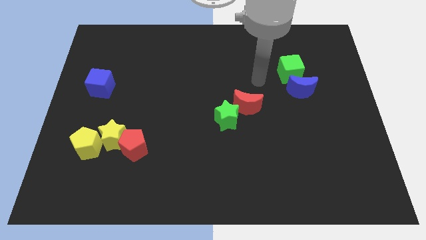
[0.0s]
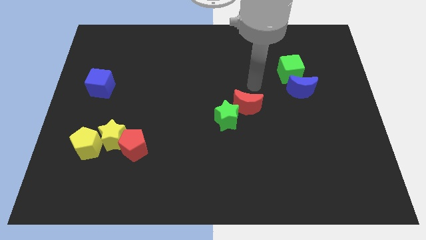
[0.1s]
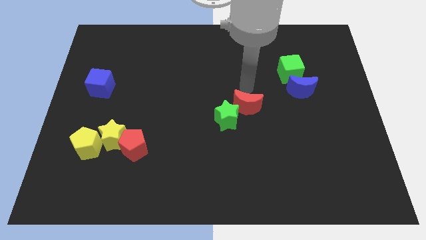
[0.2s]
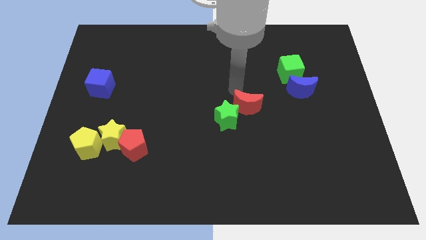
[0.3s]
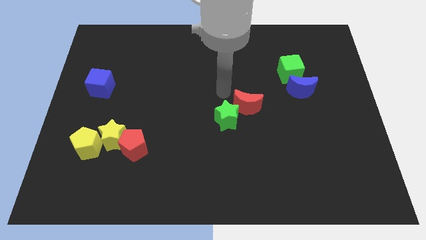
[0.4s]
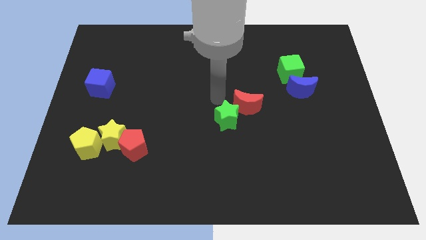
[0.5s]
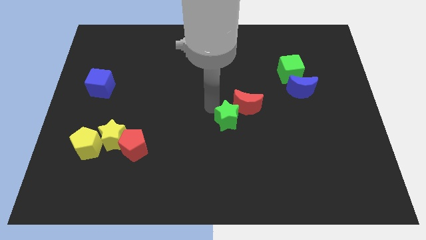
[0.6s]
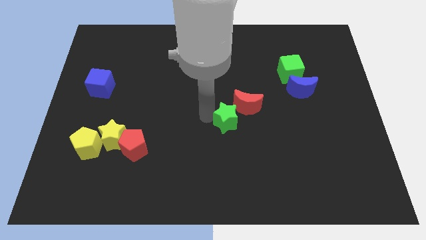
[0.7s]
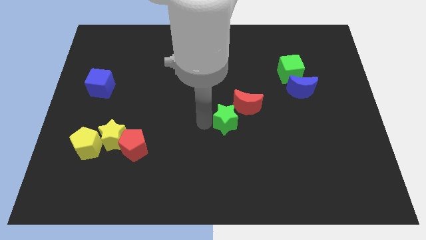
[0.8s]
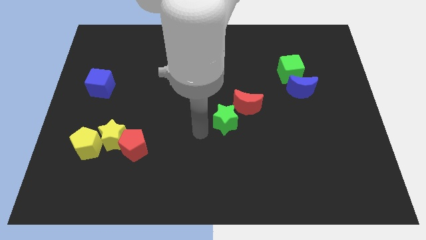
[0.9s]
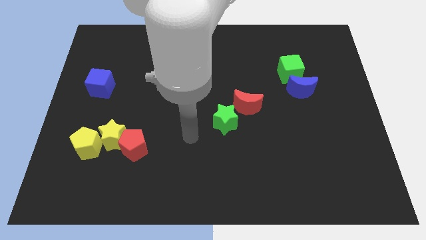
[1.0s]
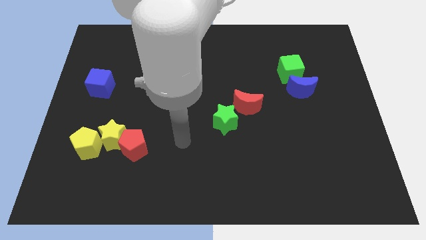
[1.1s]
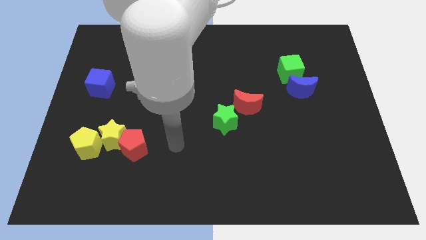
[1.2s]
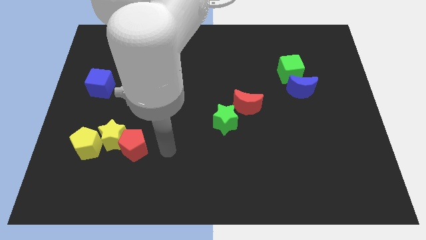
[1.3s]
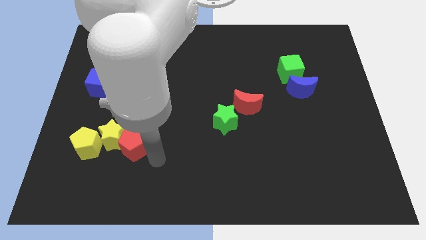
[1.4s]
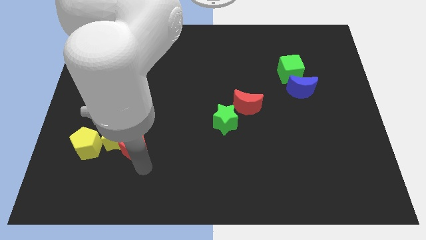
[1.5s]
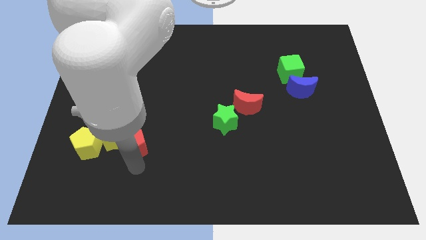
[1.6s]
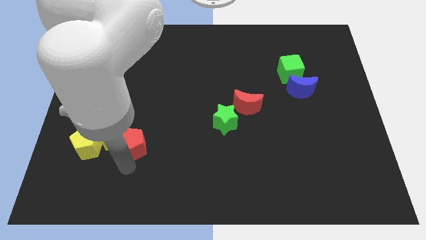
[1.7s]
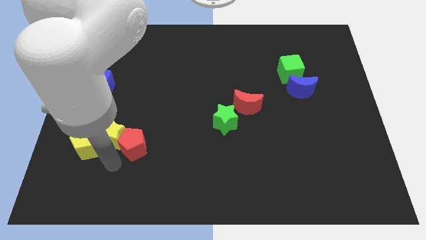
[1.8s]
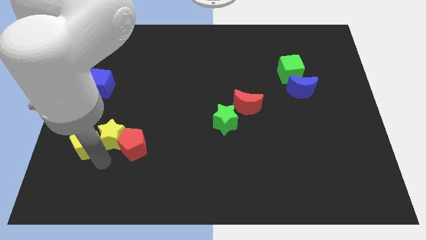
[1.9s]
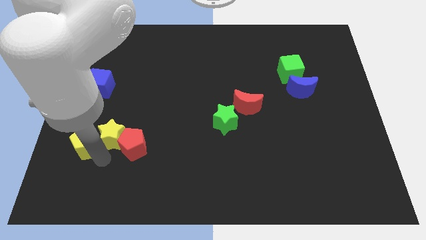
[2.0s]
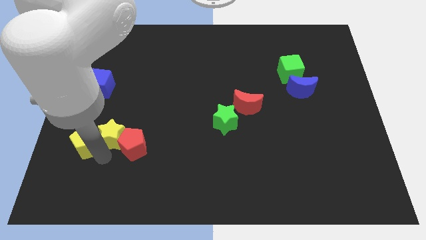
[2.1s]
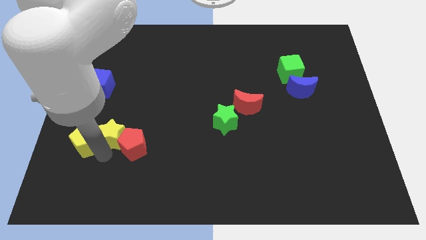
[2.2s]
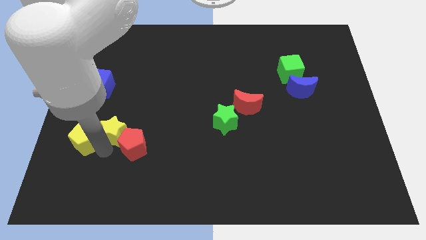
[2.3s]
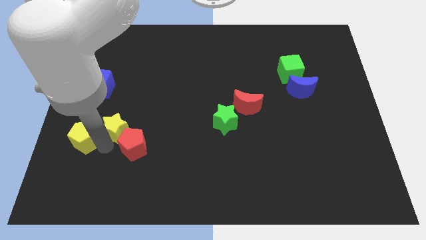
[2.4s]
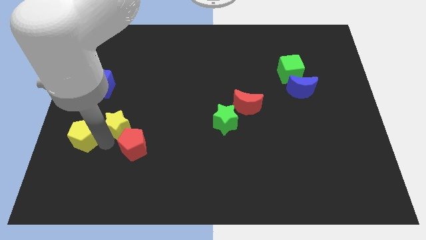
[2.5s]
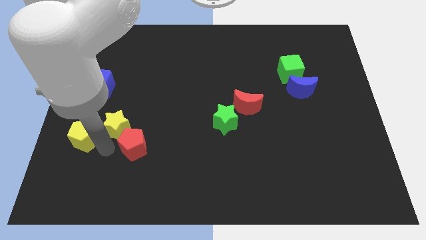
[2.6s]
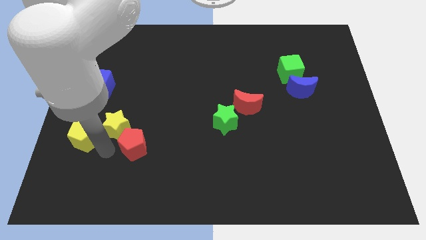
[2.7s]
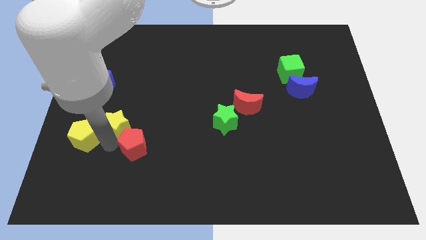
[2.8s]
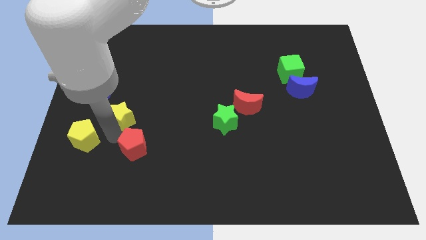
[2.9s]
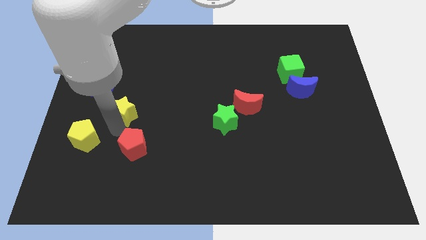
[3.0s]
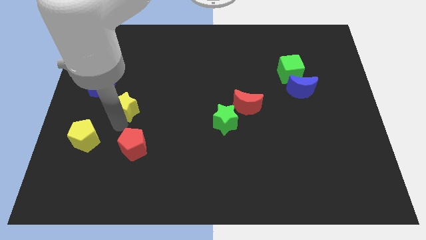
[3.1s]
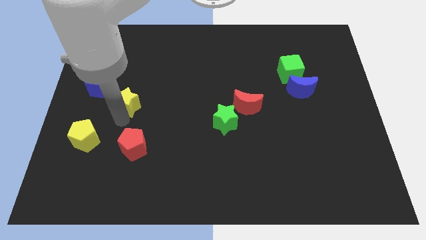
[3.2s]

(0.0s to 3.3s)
pull the yellow star apart from the red pentagon and yellow pentagon

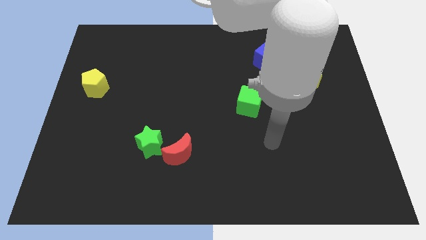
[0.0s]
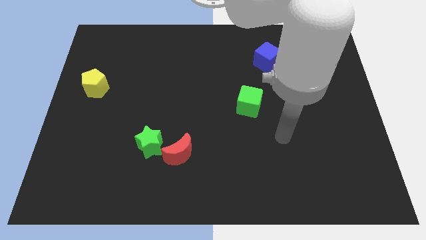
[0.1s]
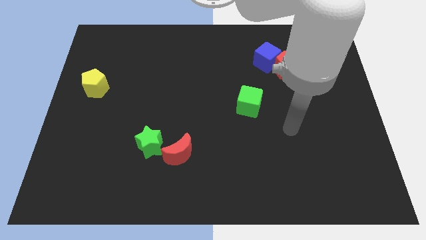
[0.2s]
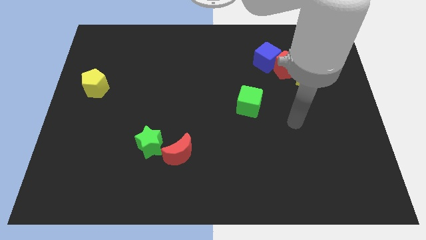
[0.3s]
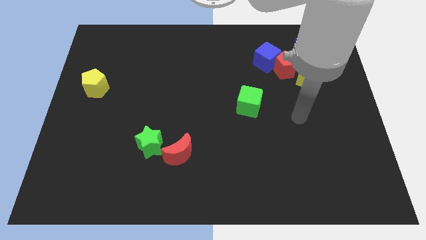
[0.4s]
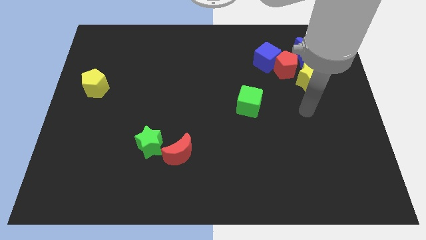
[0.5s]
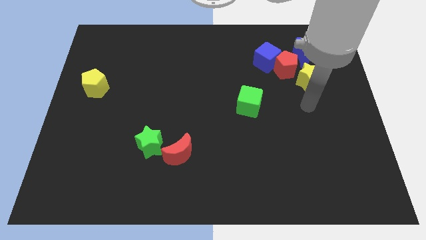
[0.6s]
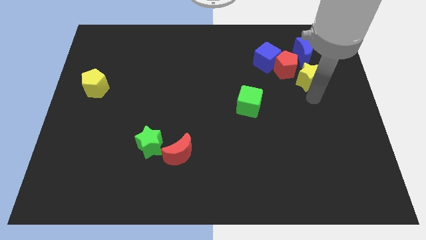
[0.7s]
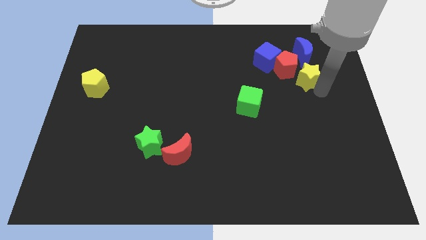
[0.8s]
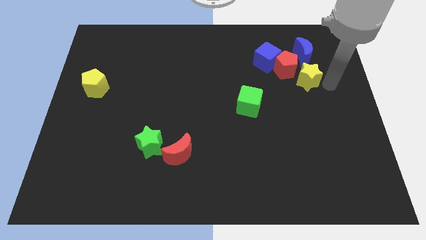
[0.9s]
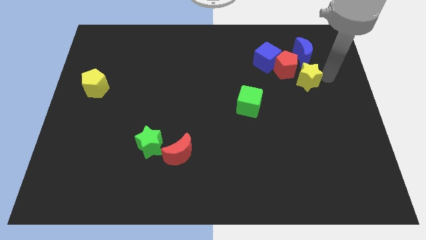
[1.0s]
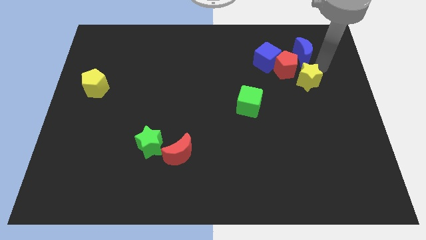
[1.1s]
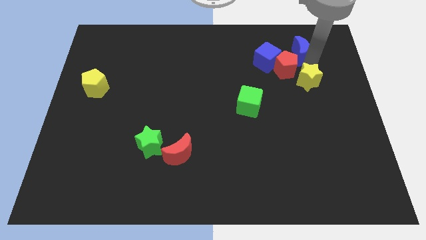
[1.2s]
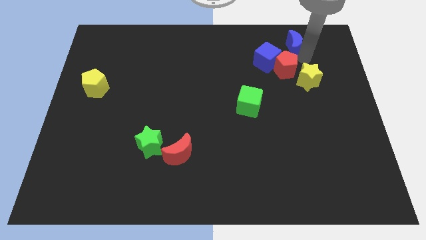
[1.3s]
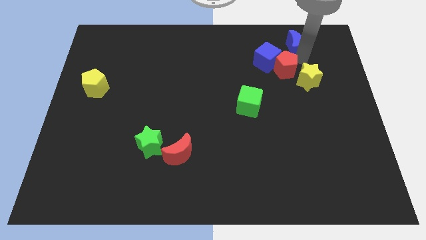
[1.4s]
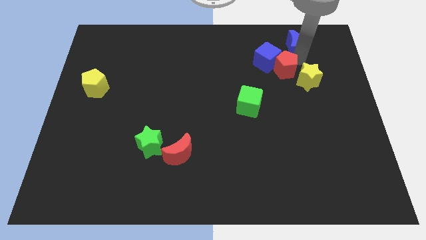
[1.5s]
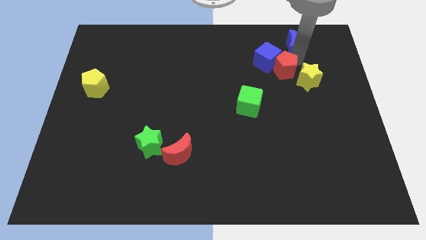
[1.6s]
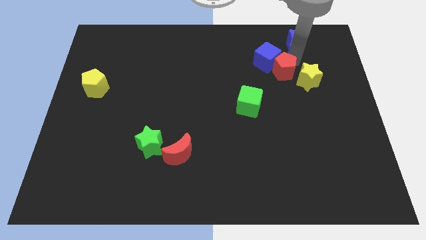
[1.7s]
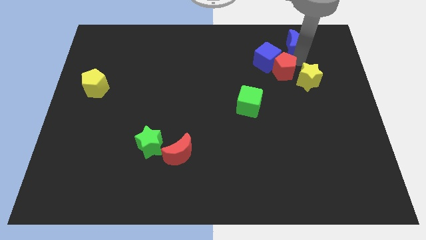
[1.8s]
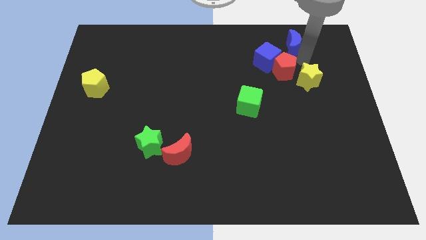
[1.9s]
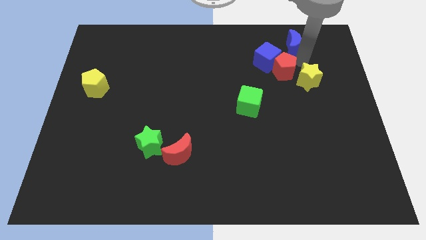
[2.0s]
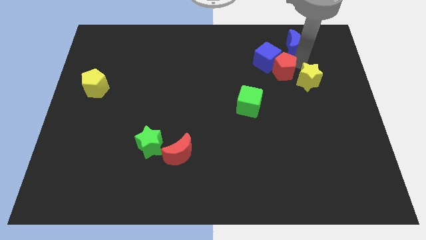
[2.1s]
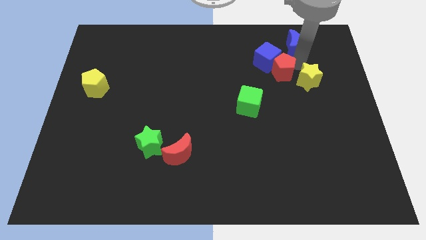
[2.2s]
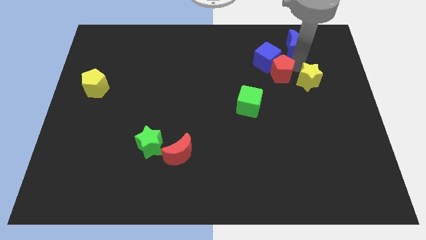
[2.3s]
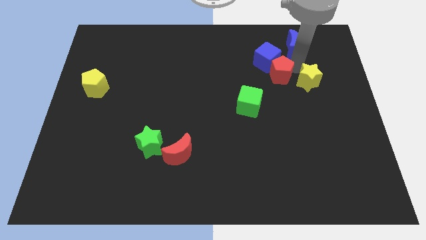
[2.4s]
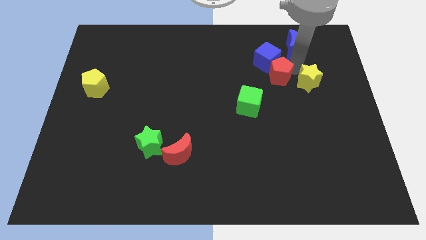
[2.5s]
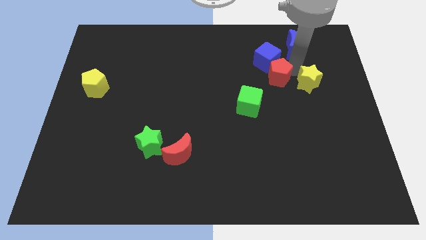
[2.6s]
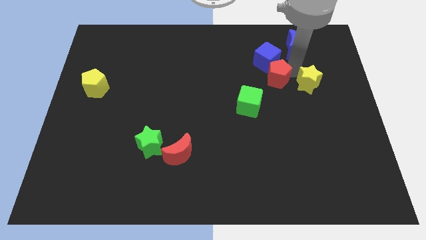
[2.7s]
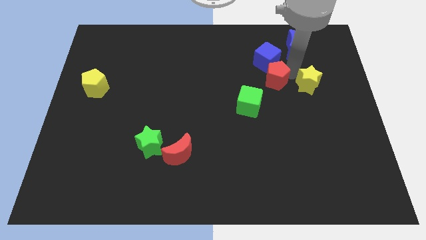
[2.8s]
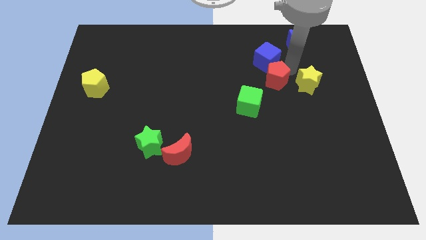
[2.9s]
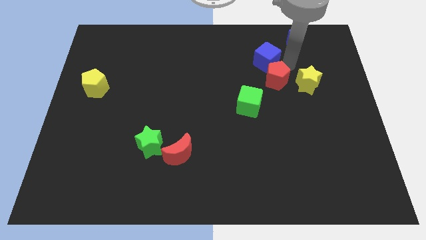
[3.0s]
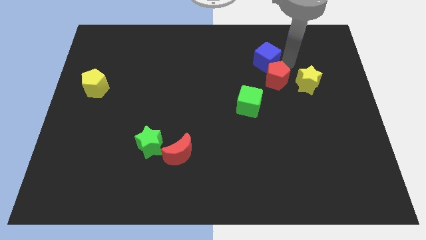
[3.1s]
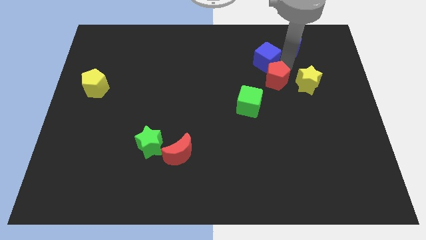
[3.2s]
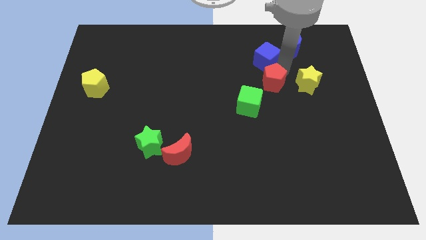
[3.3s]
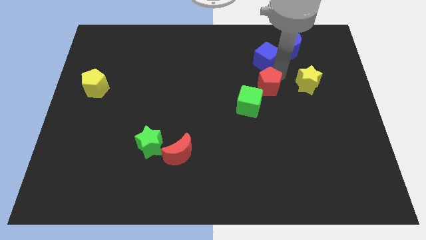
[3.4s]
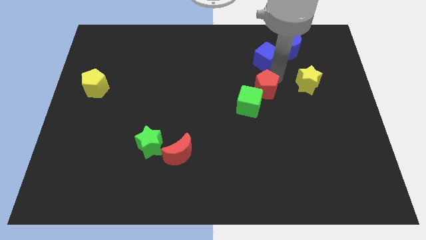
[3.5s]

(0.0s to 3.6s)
pull the red pentagon apart from the clump

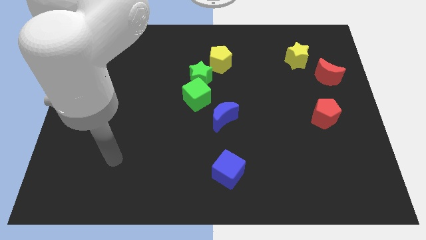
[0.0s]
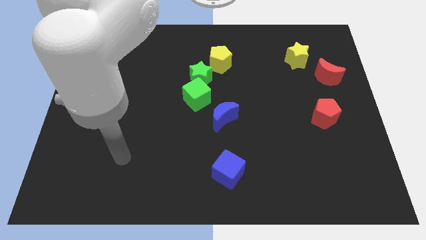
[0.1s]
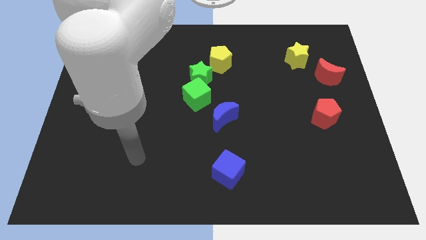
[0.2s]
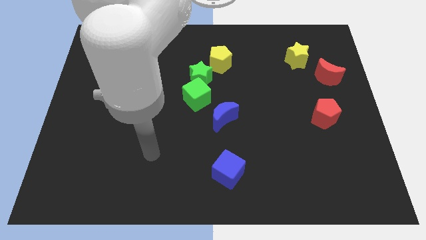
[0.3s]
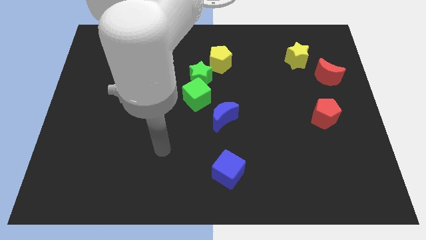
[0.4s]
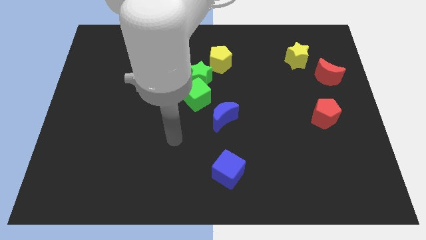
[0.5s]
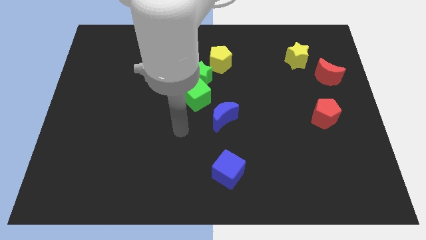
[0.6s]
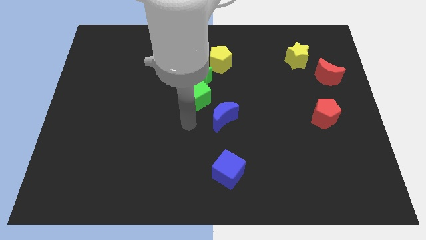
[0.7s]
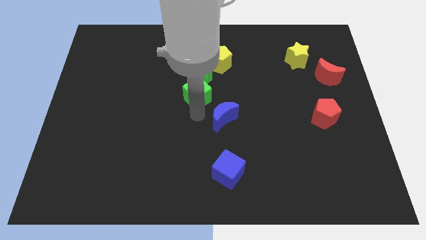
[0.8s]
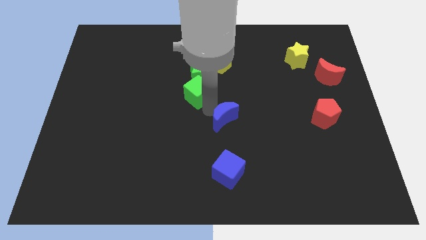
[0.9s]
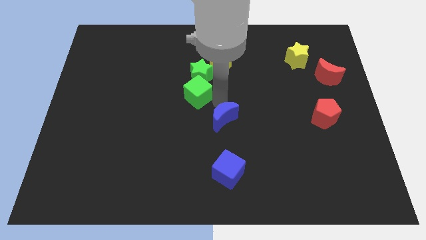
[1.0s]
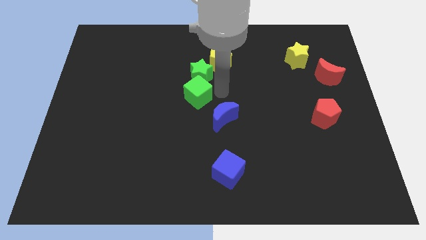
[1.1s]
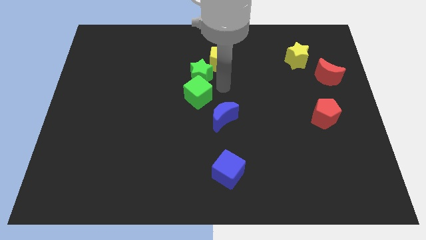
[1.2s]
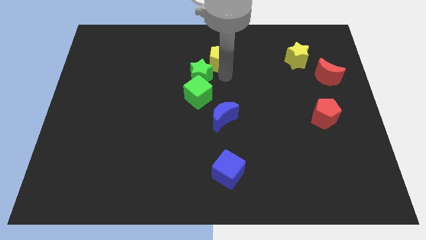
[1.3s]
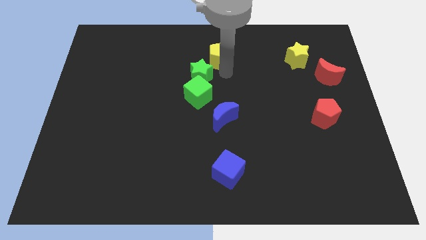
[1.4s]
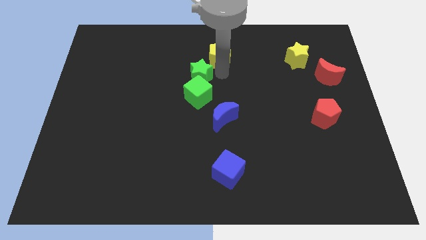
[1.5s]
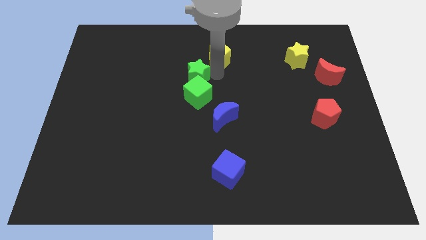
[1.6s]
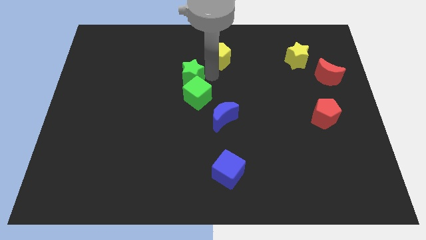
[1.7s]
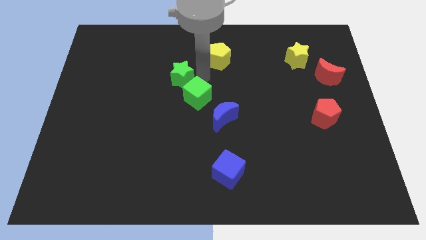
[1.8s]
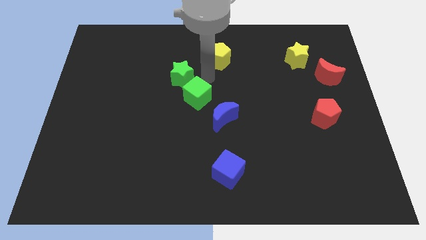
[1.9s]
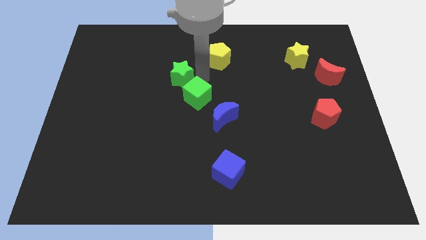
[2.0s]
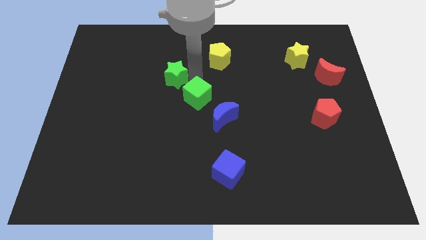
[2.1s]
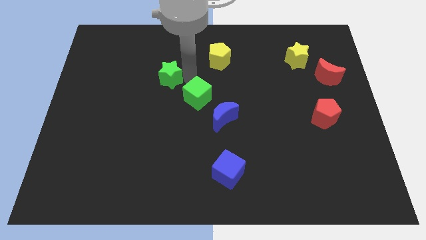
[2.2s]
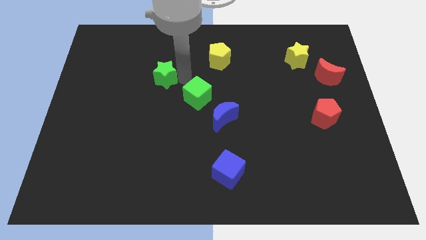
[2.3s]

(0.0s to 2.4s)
pull the green star apart from the green cube and yellow pentagon
